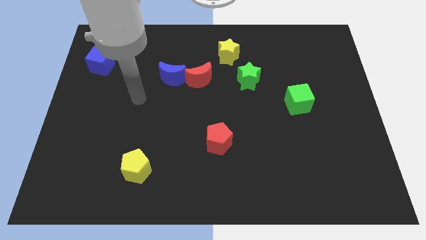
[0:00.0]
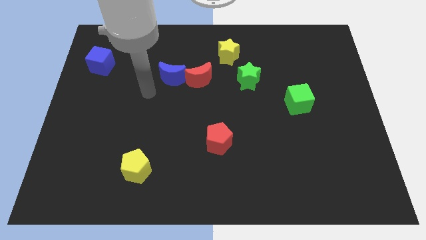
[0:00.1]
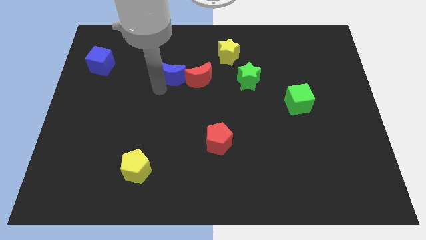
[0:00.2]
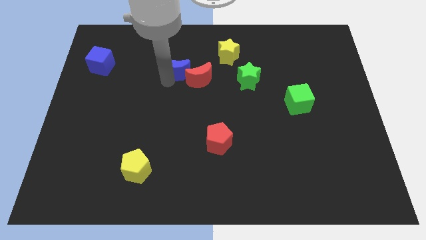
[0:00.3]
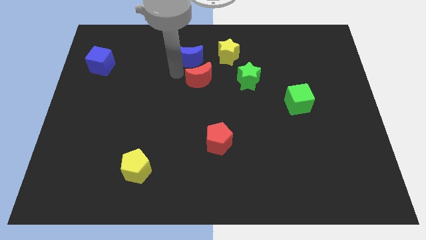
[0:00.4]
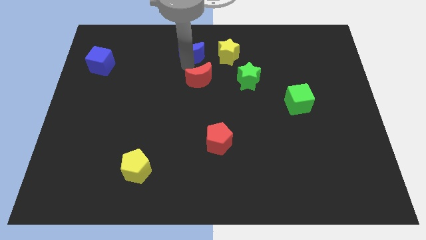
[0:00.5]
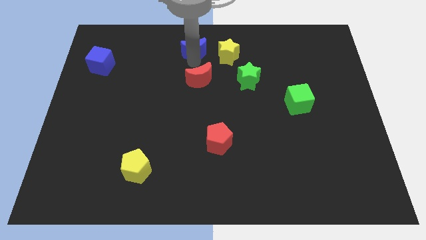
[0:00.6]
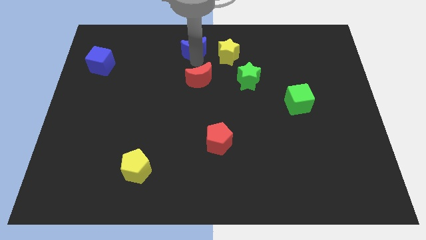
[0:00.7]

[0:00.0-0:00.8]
pull the red moon apart from the blue moon

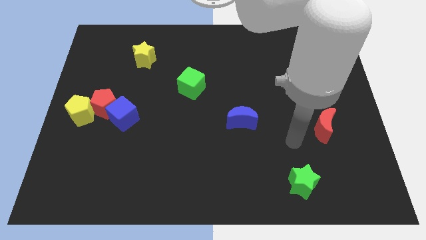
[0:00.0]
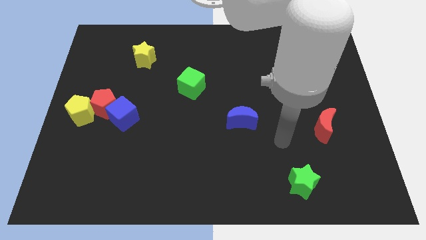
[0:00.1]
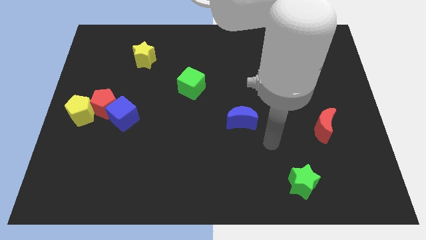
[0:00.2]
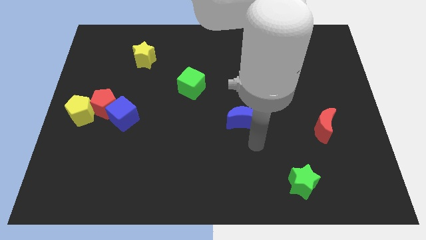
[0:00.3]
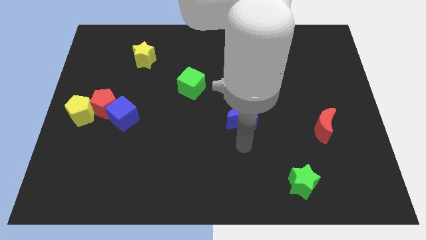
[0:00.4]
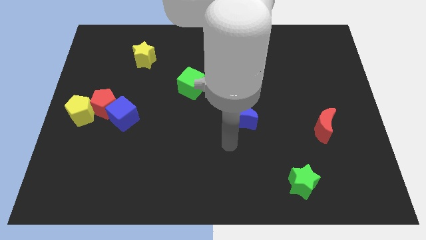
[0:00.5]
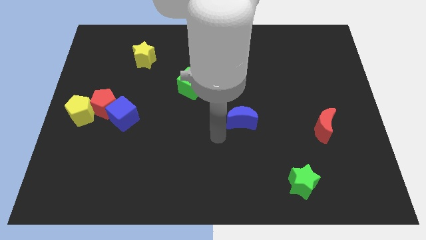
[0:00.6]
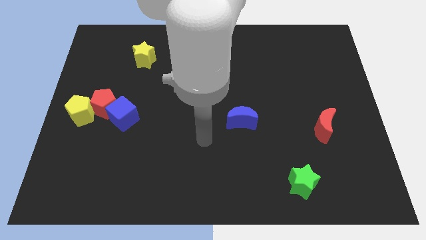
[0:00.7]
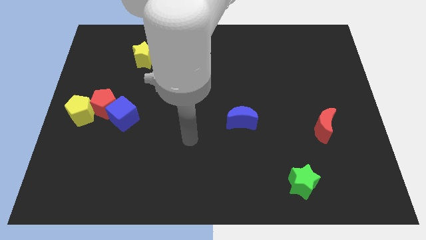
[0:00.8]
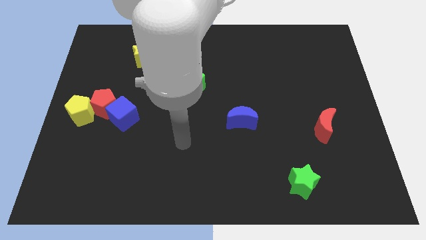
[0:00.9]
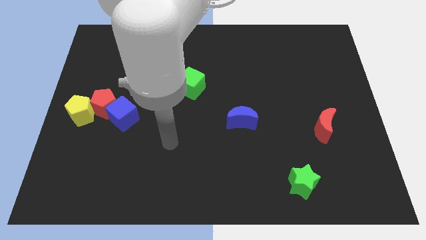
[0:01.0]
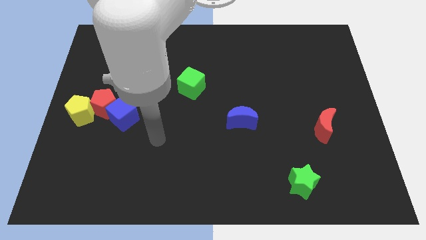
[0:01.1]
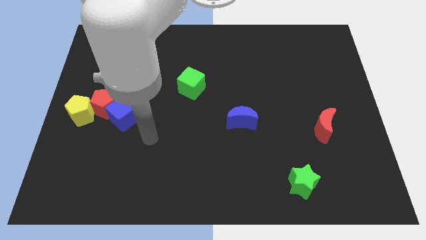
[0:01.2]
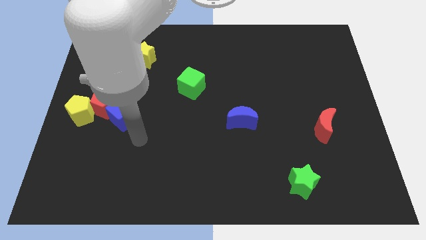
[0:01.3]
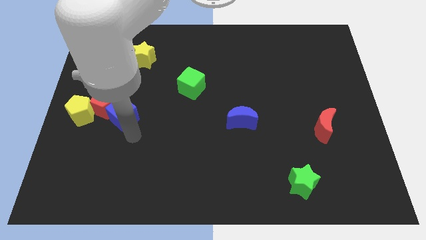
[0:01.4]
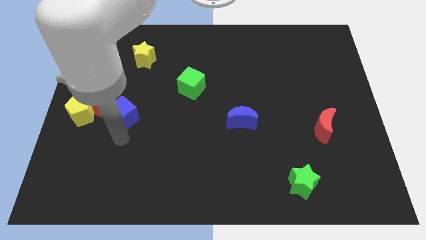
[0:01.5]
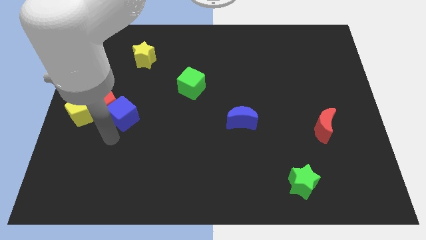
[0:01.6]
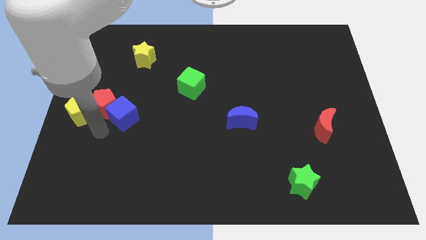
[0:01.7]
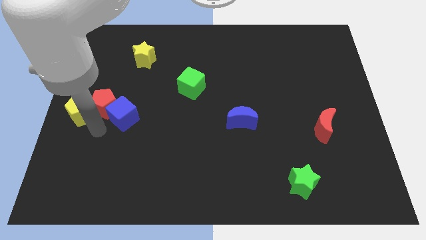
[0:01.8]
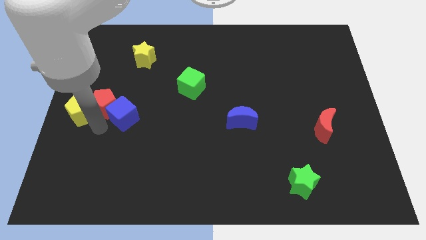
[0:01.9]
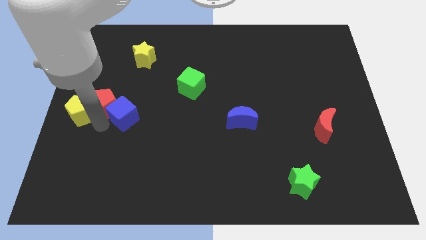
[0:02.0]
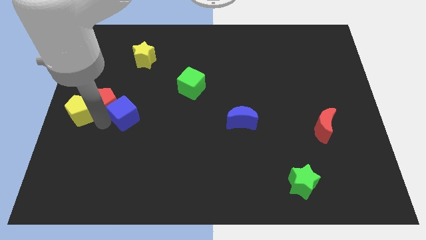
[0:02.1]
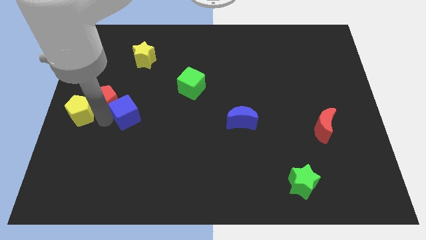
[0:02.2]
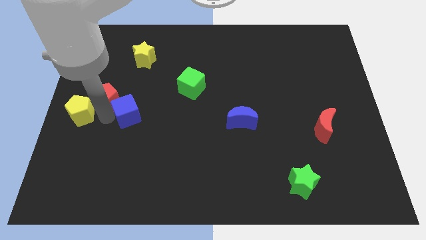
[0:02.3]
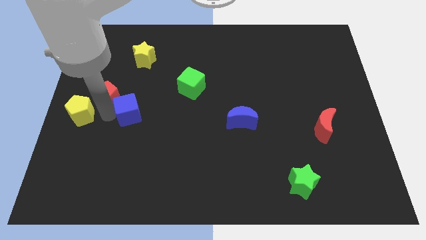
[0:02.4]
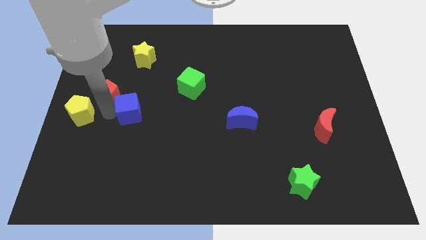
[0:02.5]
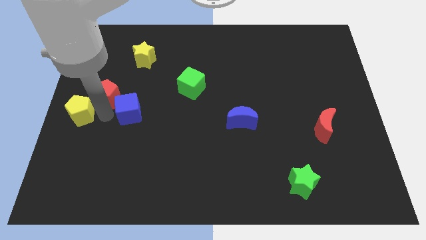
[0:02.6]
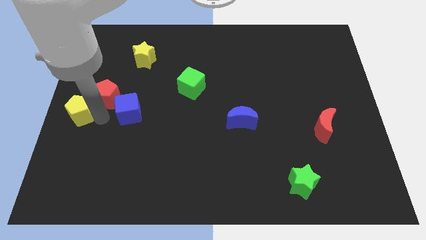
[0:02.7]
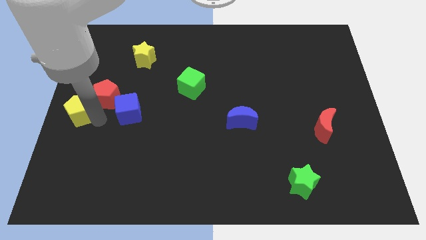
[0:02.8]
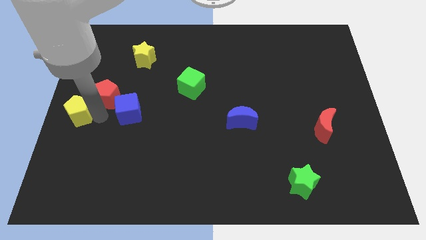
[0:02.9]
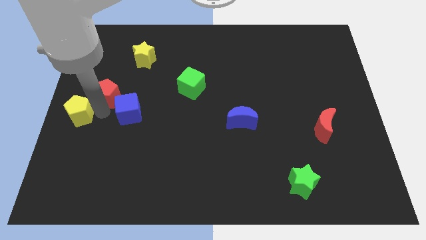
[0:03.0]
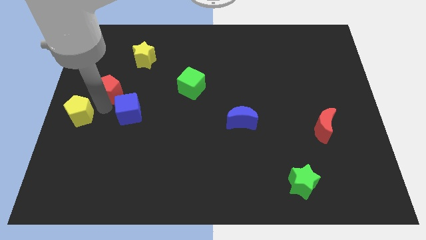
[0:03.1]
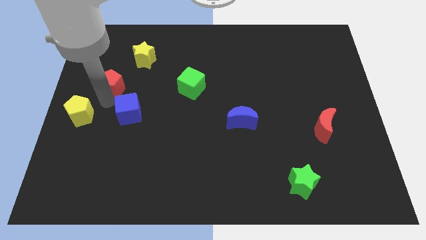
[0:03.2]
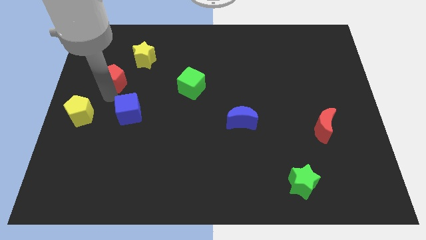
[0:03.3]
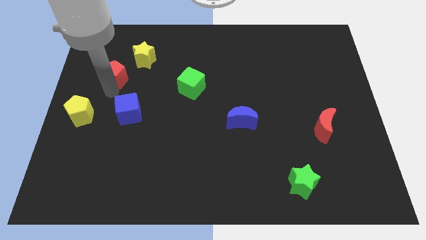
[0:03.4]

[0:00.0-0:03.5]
separate the red pentagon from the yellow pentagon and blue cube

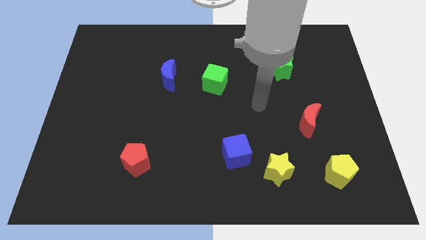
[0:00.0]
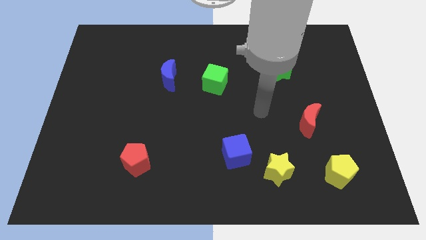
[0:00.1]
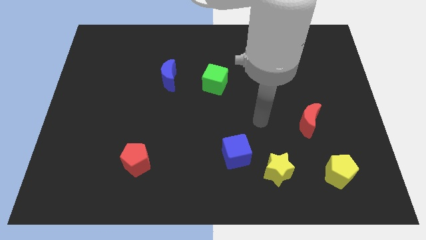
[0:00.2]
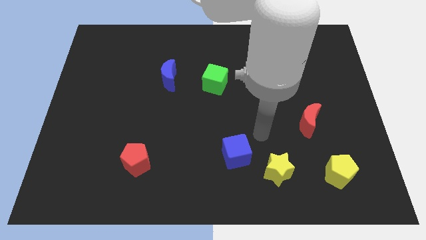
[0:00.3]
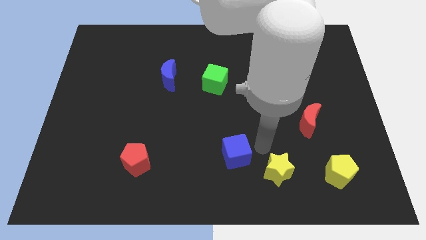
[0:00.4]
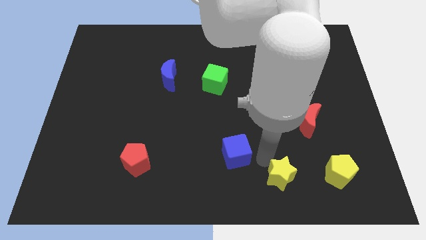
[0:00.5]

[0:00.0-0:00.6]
pull the blue cube apart from the yellow star

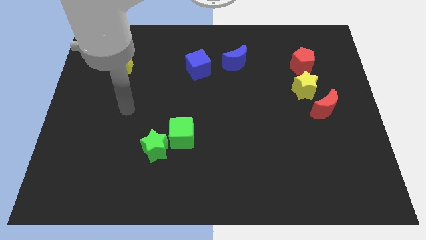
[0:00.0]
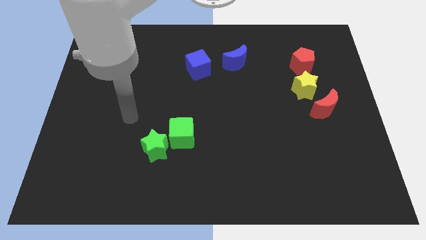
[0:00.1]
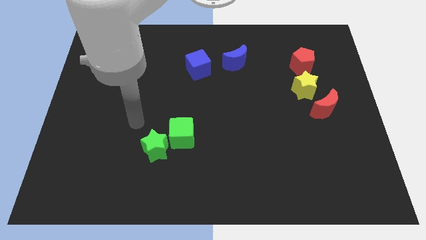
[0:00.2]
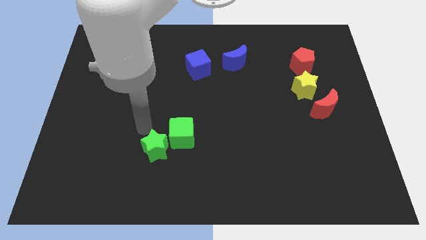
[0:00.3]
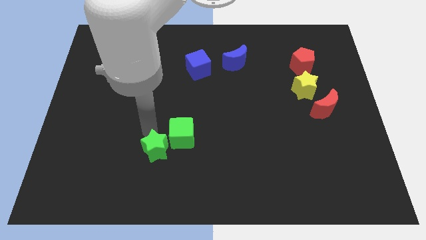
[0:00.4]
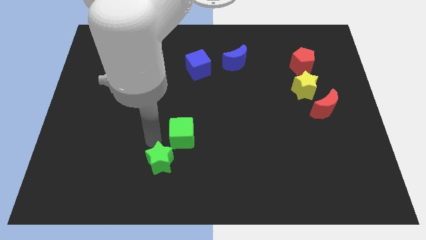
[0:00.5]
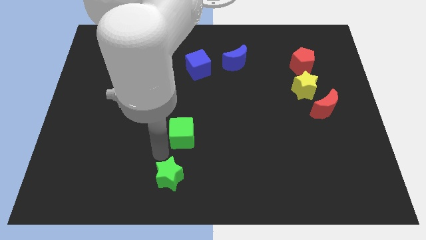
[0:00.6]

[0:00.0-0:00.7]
pull the green cube apart from the green star

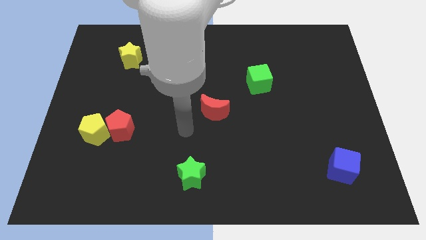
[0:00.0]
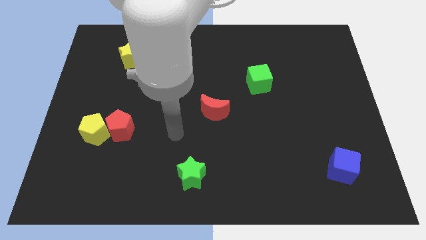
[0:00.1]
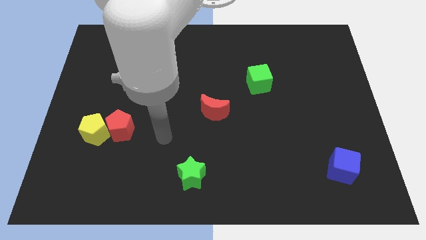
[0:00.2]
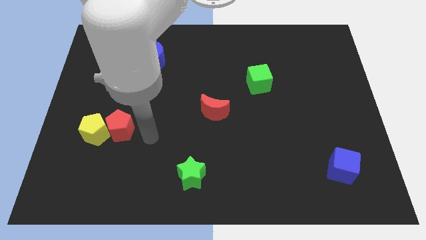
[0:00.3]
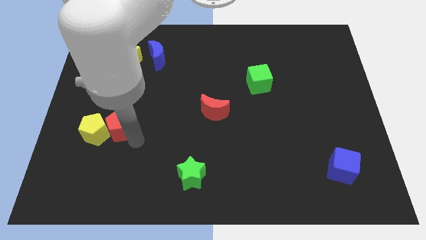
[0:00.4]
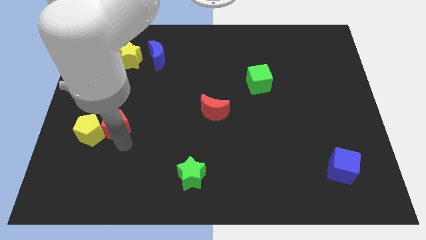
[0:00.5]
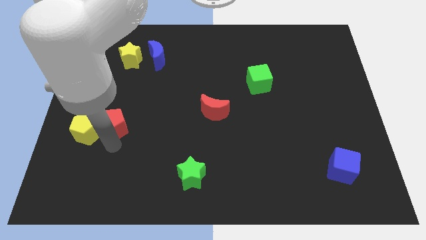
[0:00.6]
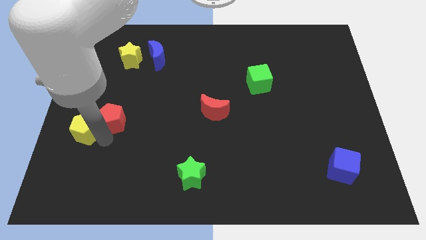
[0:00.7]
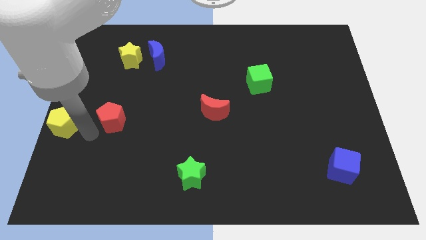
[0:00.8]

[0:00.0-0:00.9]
move the red pentagon away from the yellow pentagon

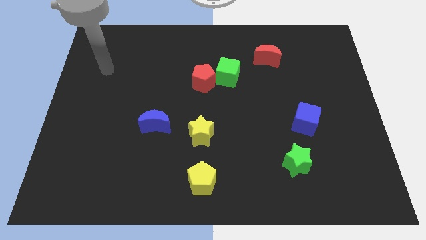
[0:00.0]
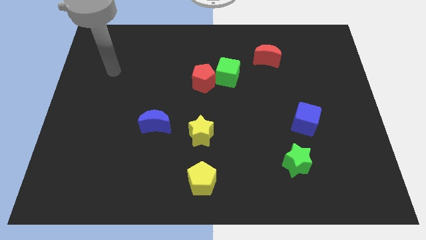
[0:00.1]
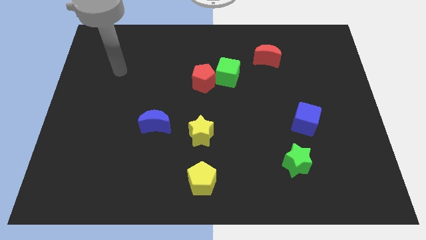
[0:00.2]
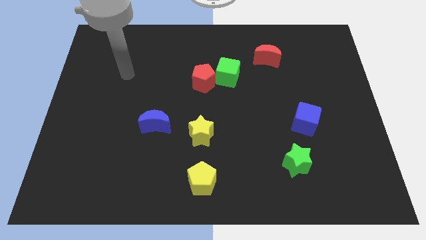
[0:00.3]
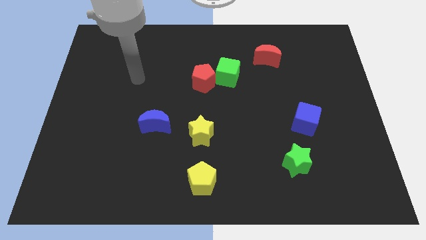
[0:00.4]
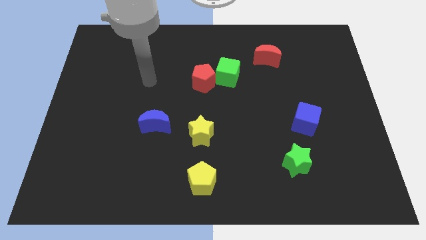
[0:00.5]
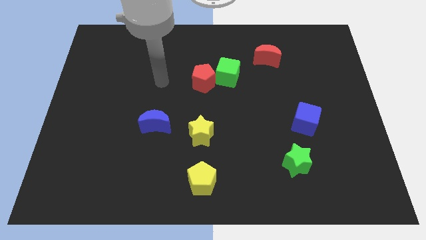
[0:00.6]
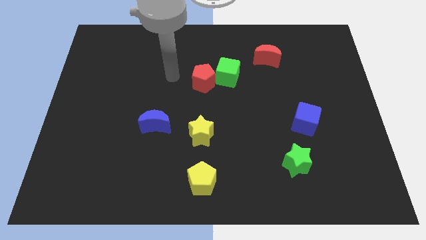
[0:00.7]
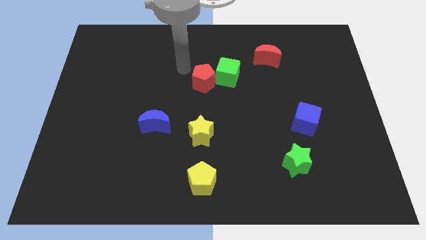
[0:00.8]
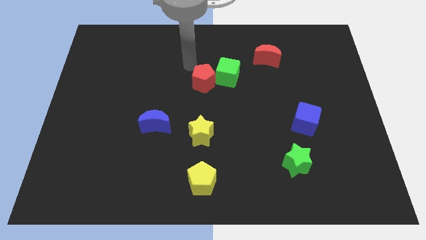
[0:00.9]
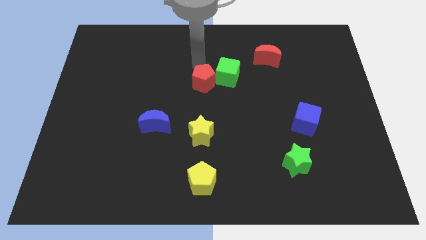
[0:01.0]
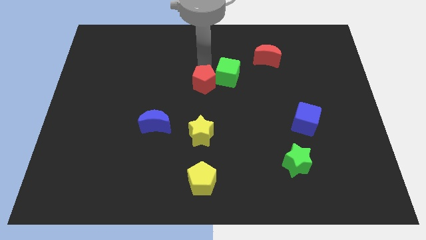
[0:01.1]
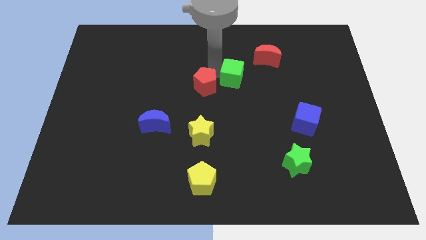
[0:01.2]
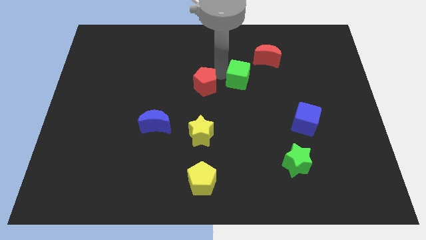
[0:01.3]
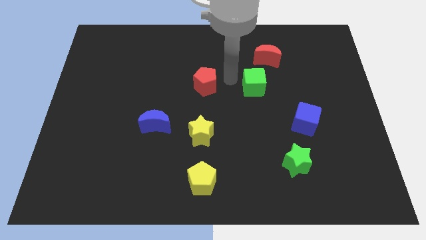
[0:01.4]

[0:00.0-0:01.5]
separate the red pentagon from the green cube

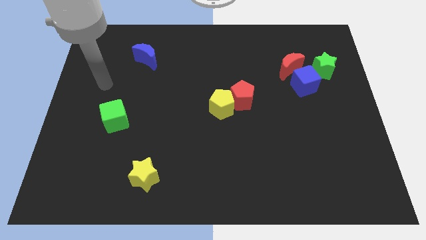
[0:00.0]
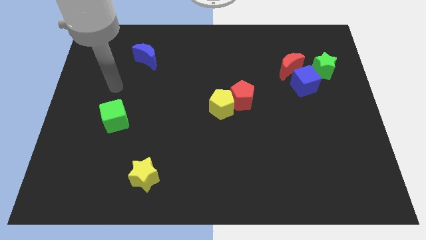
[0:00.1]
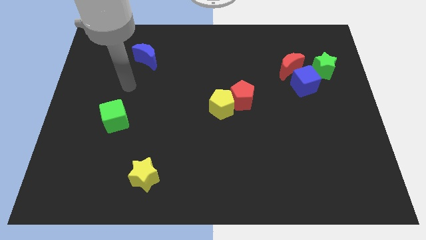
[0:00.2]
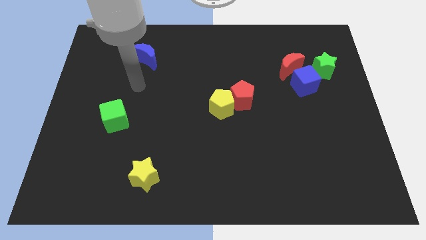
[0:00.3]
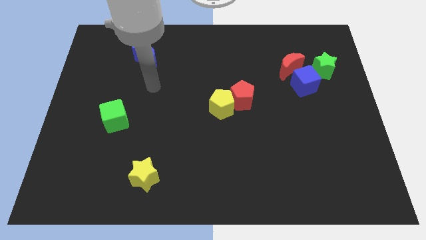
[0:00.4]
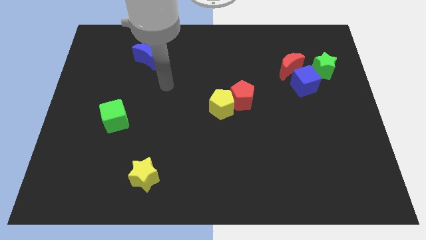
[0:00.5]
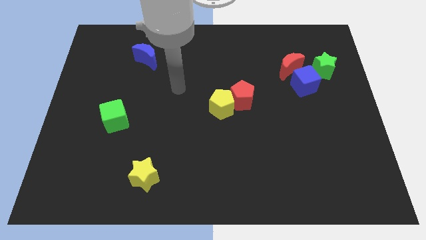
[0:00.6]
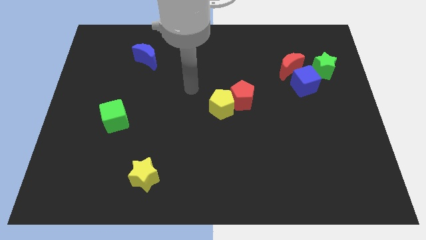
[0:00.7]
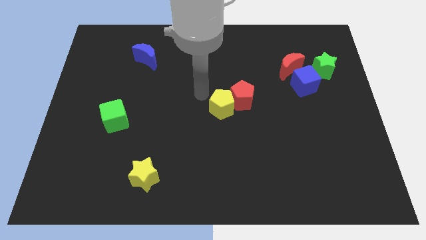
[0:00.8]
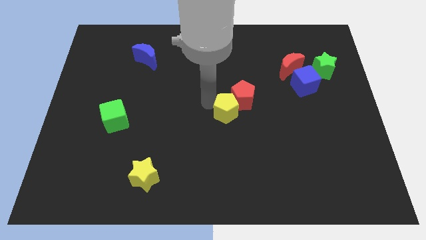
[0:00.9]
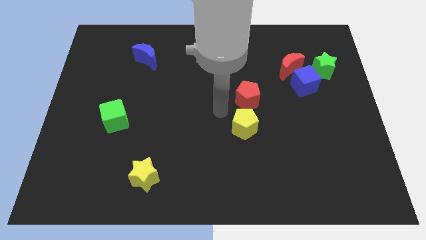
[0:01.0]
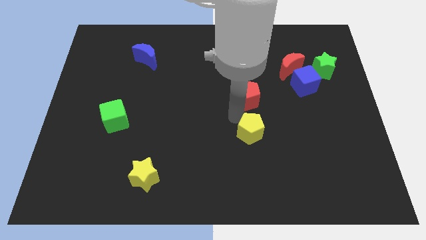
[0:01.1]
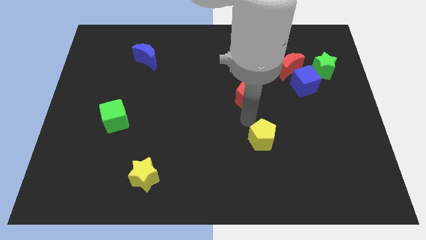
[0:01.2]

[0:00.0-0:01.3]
pull the red pentagon apart from the yellow pentagon
